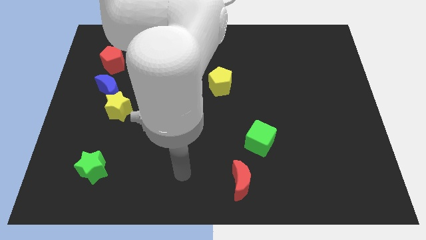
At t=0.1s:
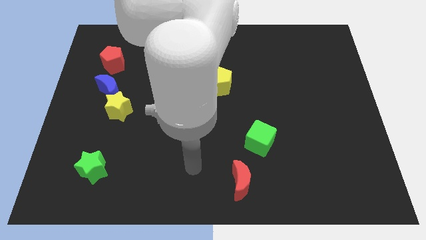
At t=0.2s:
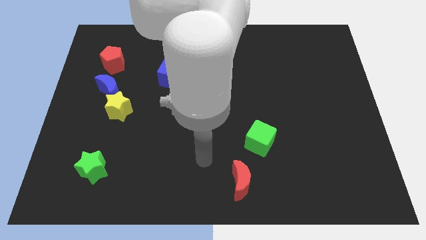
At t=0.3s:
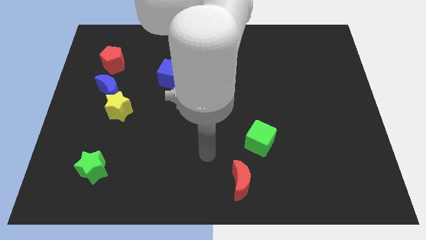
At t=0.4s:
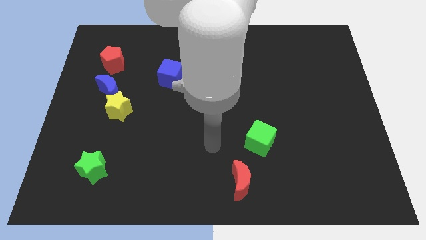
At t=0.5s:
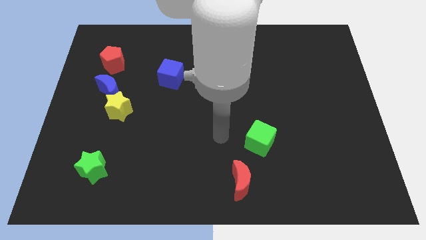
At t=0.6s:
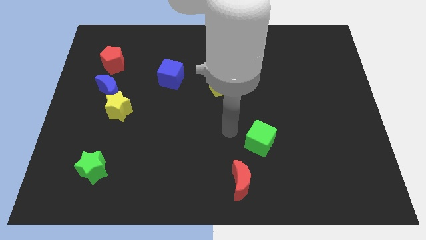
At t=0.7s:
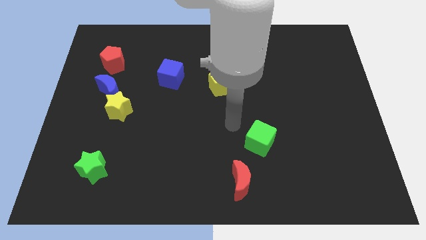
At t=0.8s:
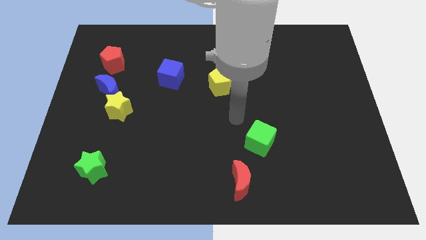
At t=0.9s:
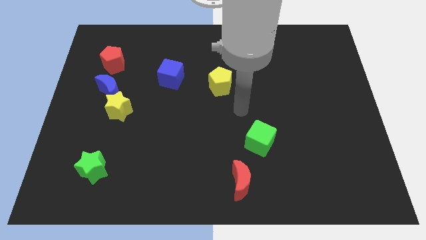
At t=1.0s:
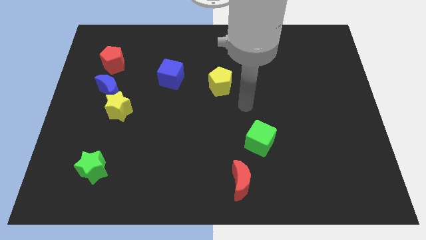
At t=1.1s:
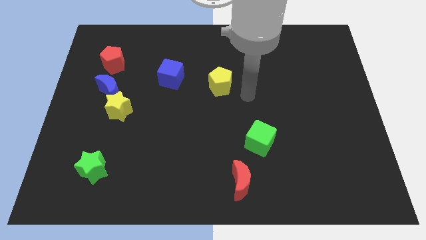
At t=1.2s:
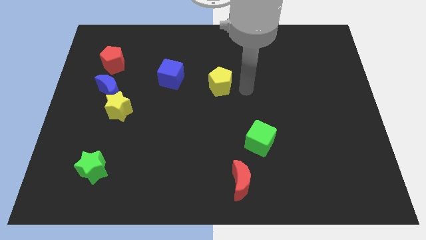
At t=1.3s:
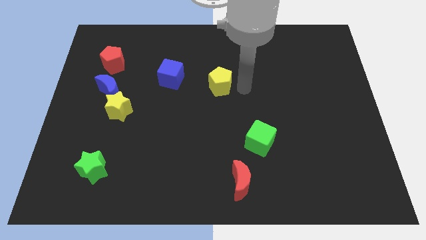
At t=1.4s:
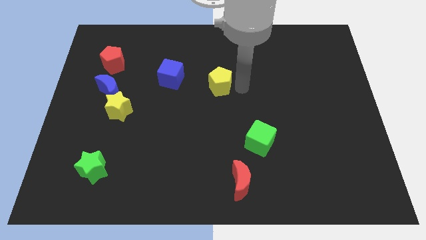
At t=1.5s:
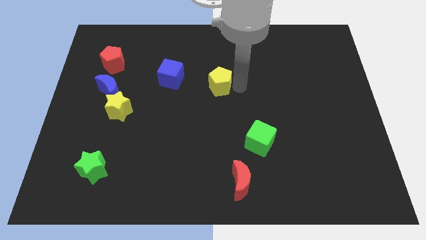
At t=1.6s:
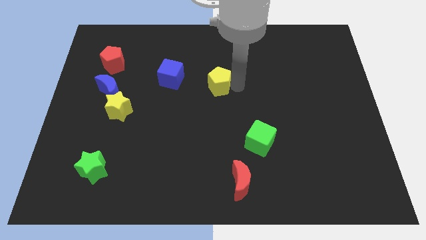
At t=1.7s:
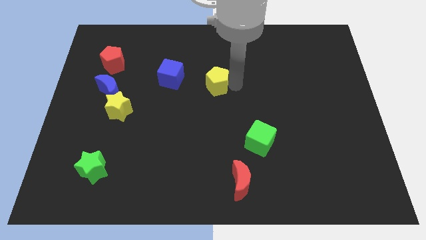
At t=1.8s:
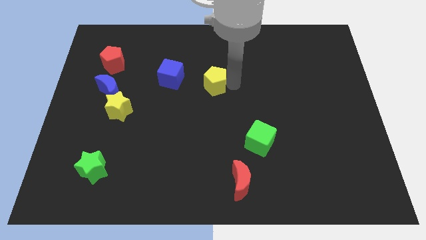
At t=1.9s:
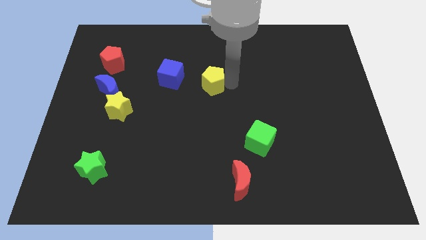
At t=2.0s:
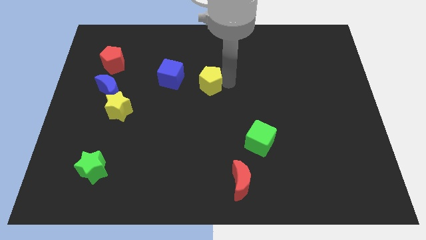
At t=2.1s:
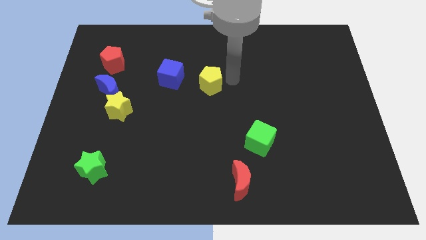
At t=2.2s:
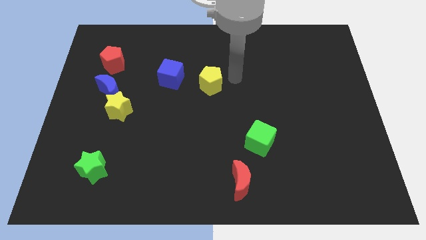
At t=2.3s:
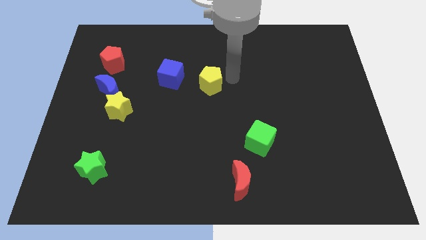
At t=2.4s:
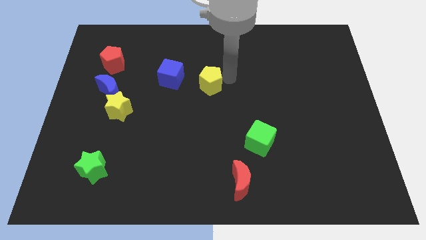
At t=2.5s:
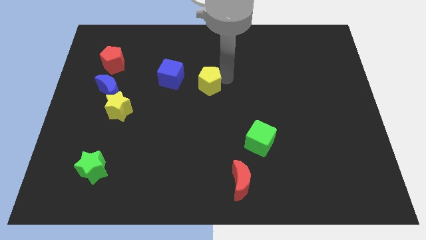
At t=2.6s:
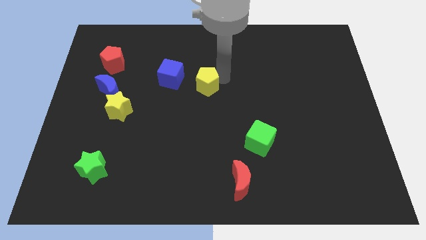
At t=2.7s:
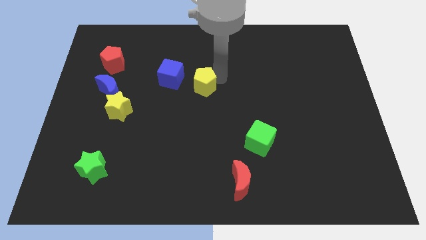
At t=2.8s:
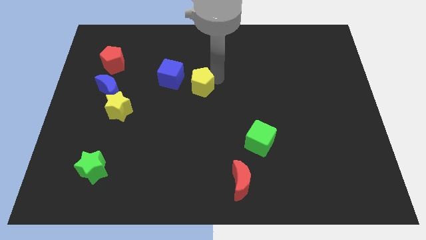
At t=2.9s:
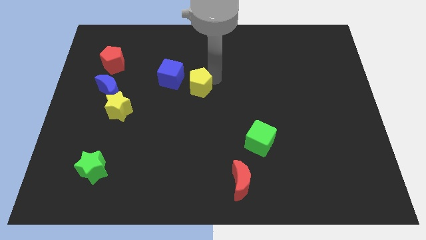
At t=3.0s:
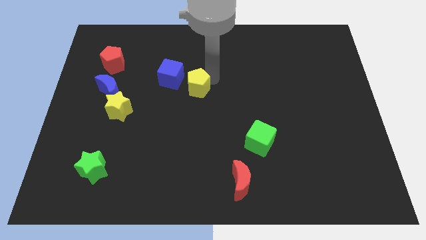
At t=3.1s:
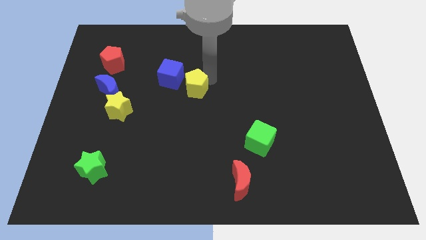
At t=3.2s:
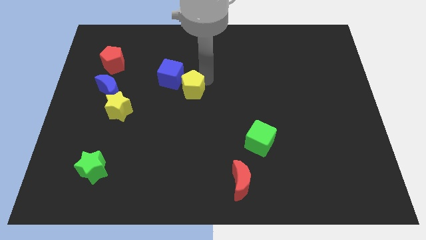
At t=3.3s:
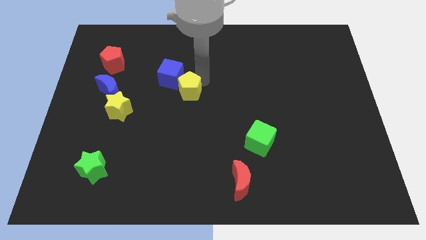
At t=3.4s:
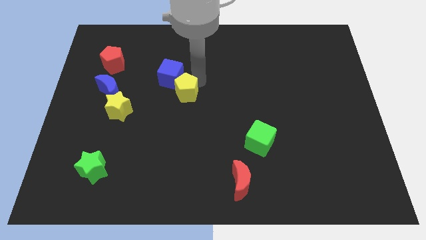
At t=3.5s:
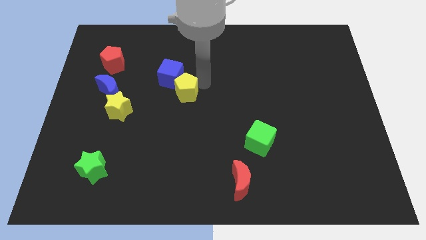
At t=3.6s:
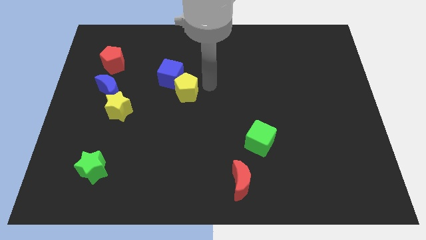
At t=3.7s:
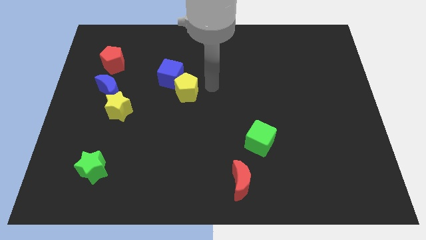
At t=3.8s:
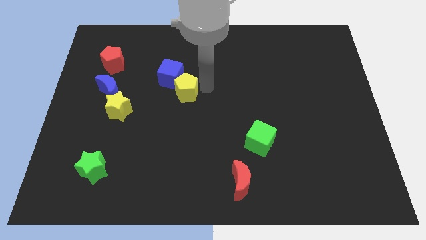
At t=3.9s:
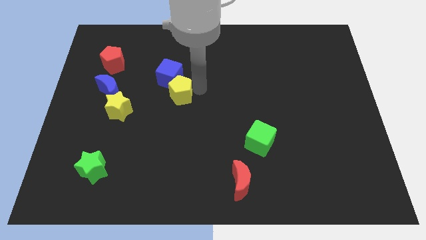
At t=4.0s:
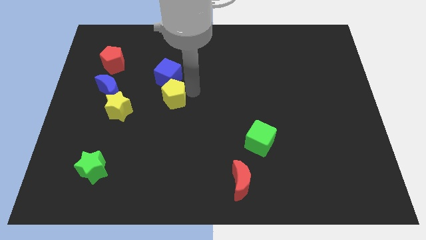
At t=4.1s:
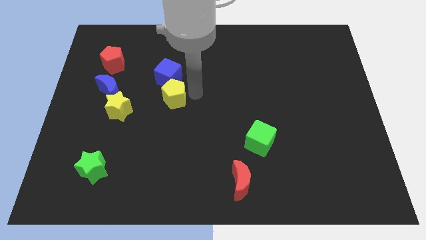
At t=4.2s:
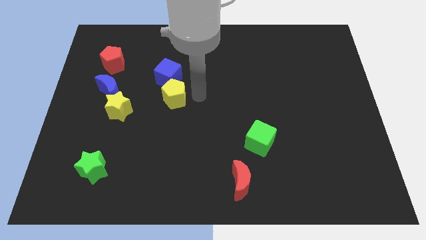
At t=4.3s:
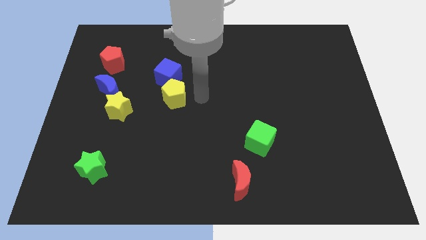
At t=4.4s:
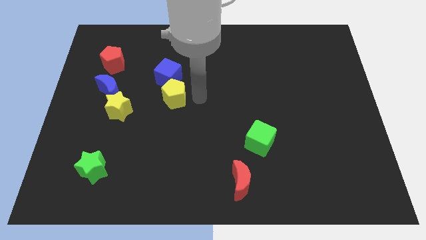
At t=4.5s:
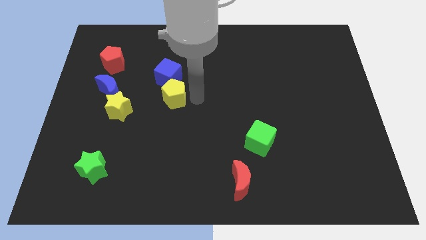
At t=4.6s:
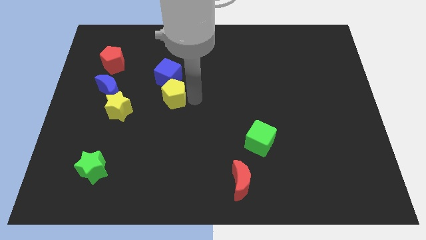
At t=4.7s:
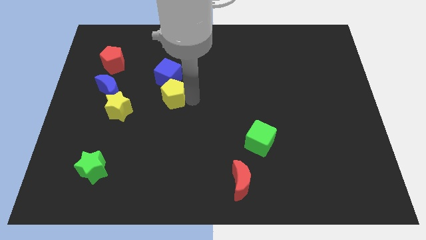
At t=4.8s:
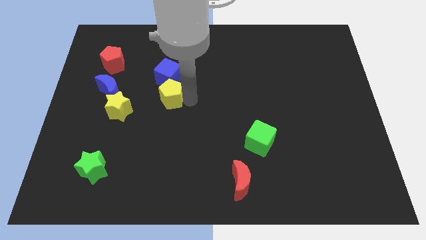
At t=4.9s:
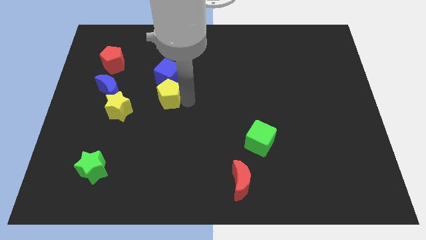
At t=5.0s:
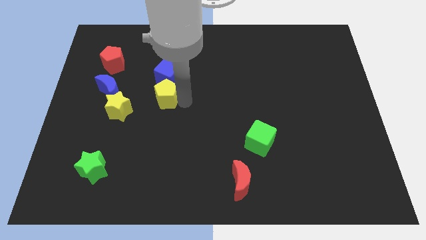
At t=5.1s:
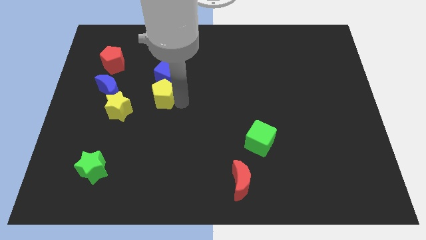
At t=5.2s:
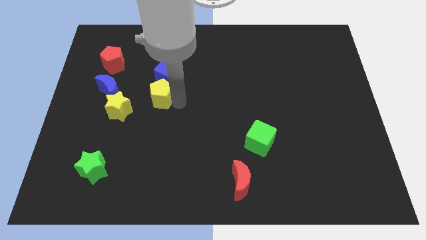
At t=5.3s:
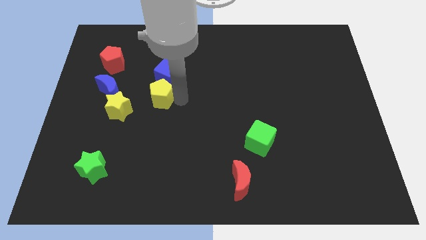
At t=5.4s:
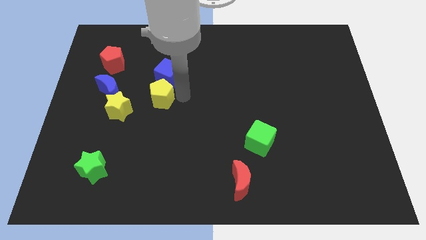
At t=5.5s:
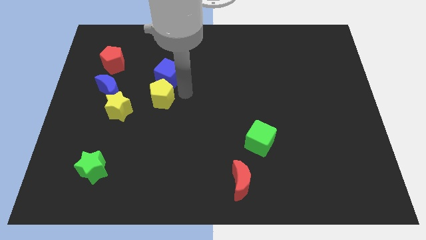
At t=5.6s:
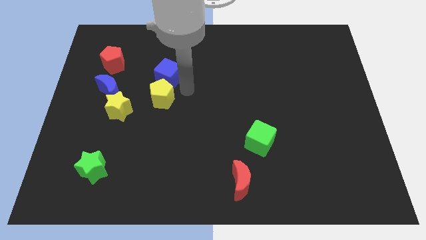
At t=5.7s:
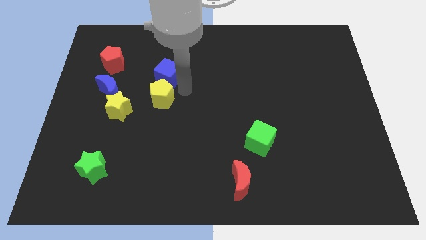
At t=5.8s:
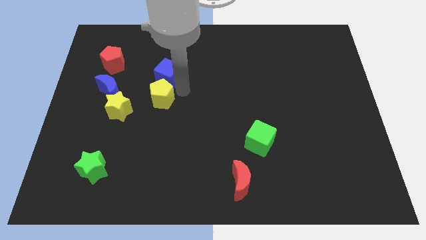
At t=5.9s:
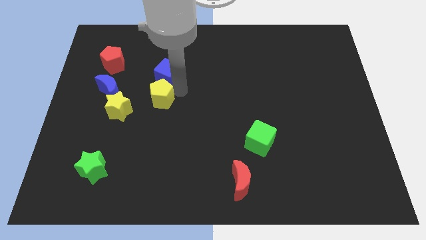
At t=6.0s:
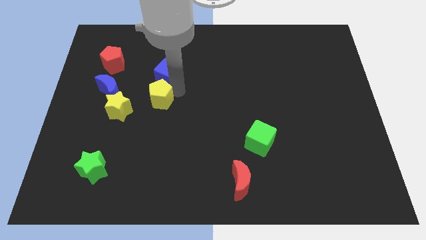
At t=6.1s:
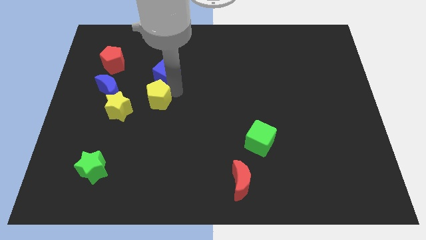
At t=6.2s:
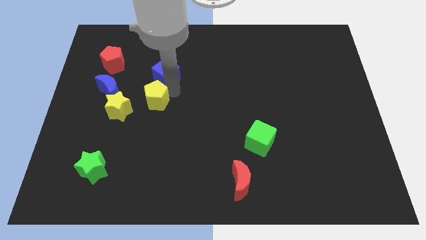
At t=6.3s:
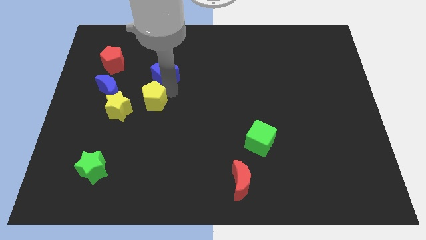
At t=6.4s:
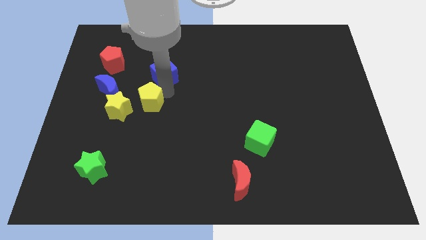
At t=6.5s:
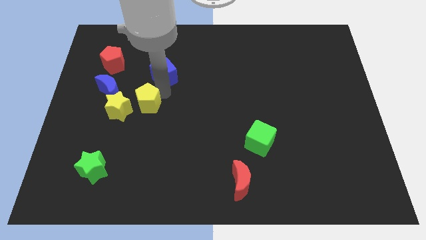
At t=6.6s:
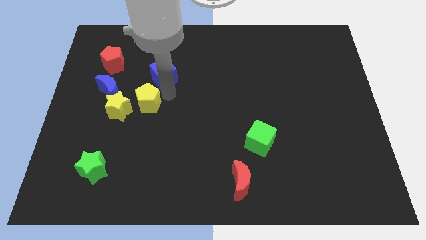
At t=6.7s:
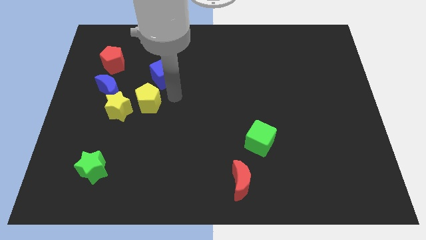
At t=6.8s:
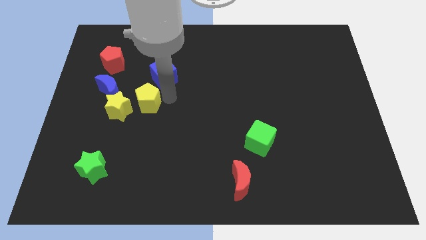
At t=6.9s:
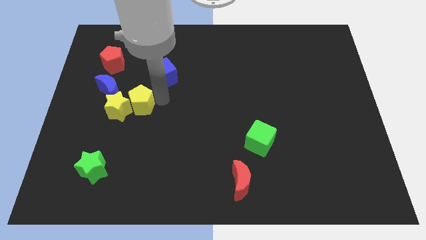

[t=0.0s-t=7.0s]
move the yellow pentagon next to the yellow star
